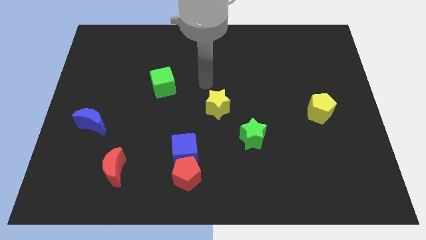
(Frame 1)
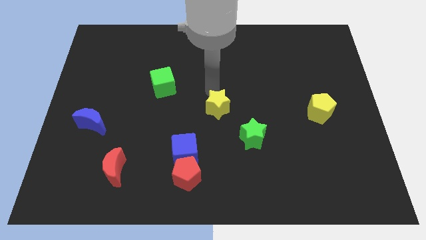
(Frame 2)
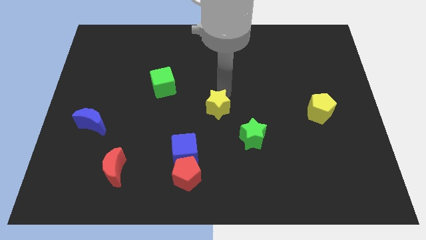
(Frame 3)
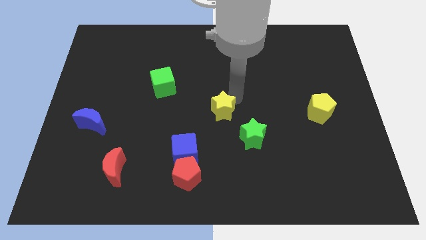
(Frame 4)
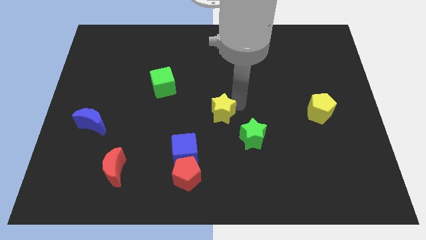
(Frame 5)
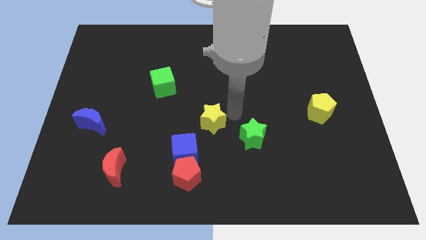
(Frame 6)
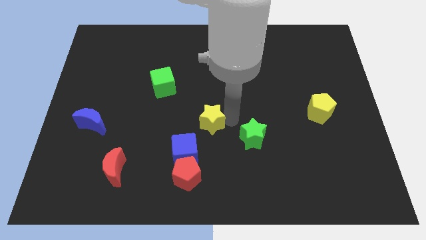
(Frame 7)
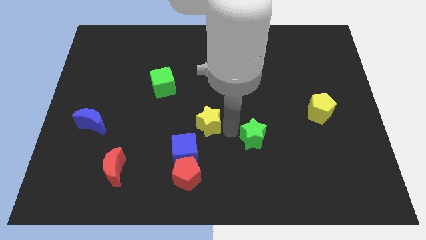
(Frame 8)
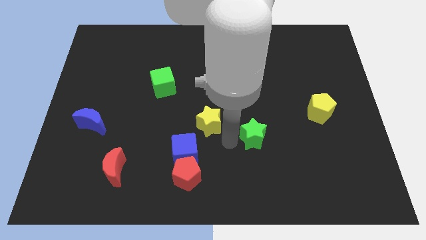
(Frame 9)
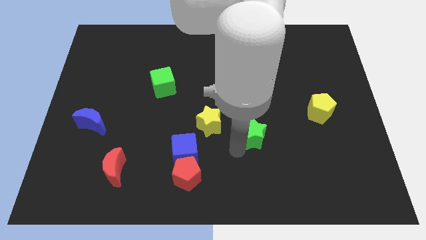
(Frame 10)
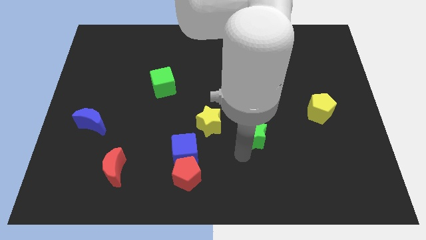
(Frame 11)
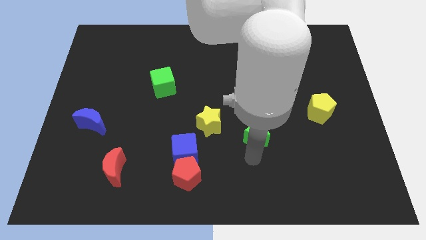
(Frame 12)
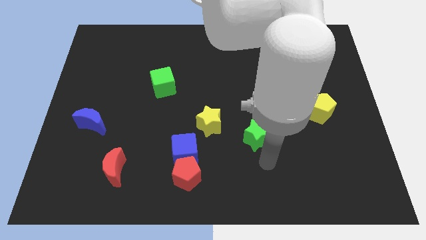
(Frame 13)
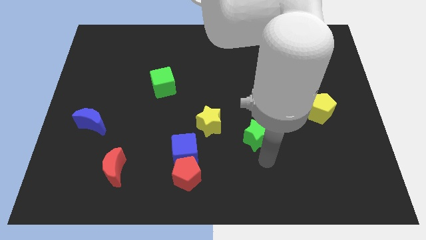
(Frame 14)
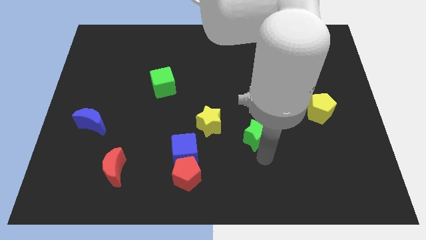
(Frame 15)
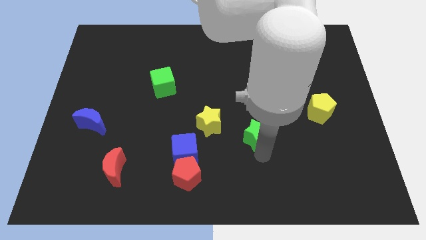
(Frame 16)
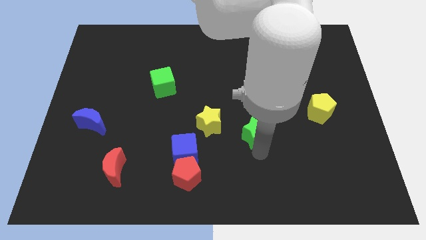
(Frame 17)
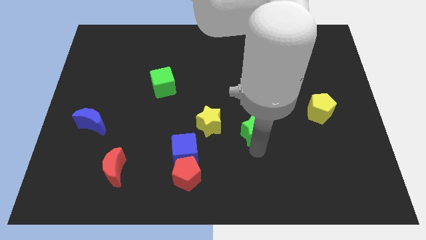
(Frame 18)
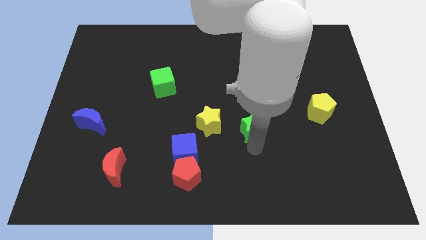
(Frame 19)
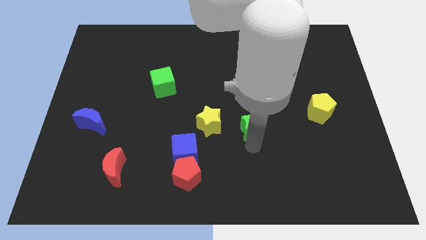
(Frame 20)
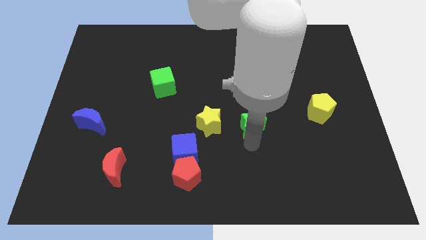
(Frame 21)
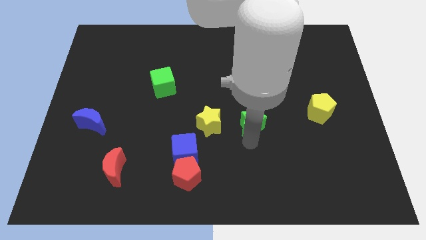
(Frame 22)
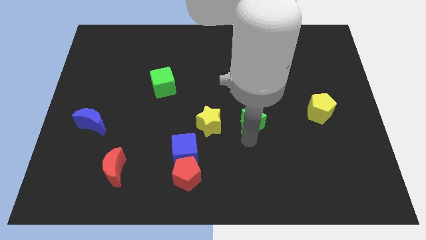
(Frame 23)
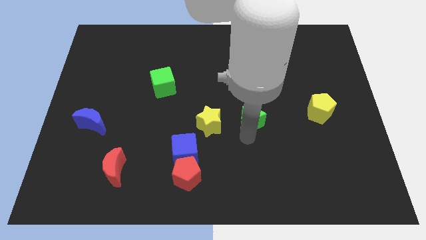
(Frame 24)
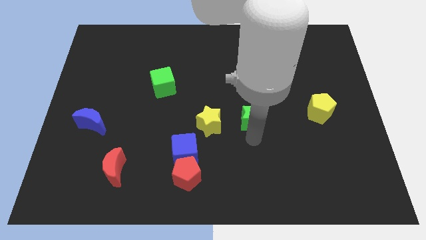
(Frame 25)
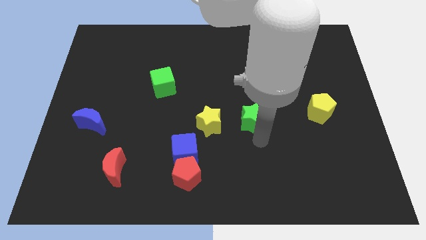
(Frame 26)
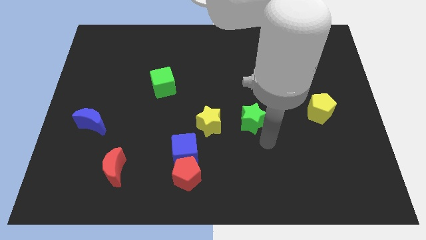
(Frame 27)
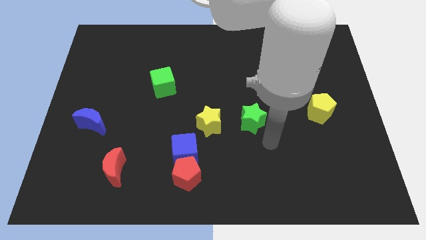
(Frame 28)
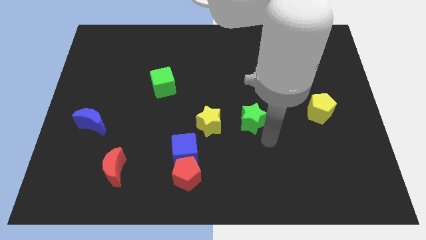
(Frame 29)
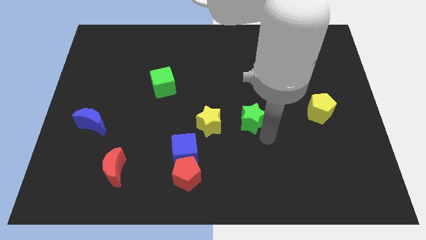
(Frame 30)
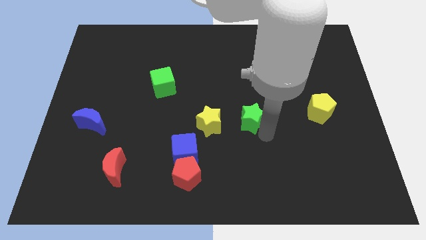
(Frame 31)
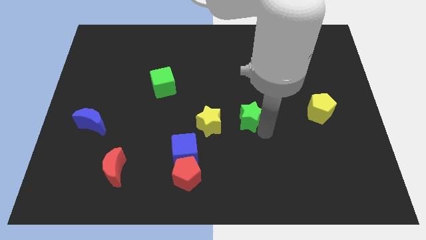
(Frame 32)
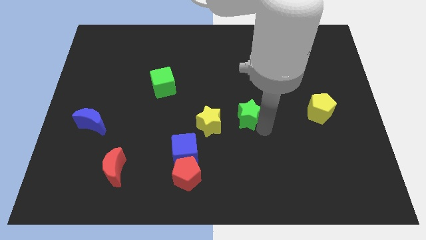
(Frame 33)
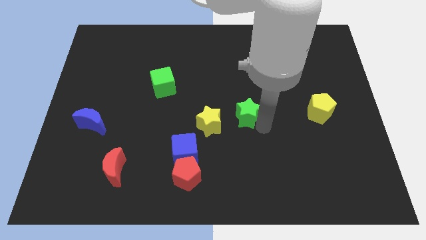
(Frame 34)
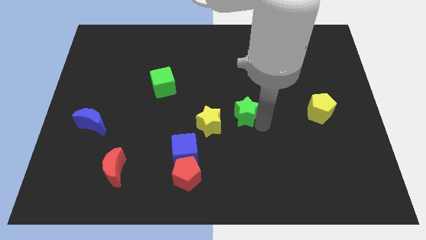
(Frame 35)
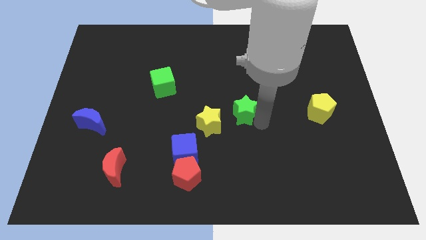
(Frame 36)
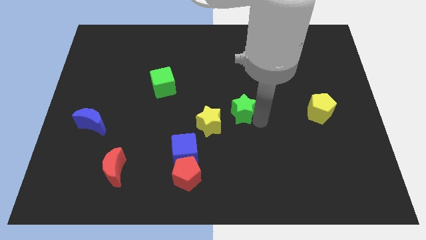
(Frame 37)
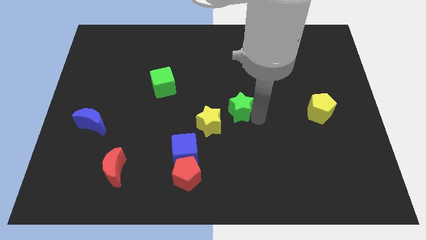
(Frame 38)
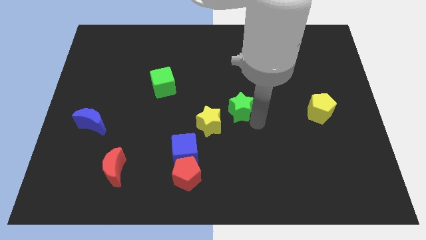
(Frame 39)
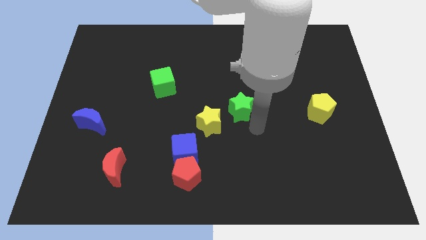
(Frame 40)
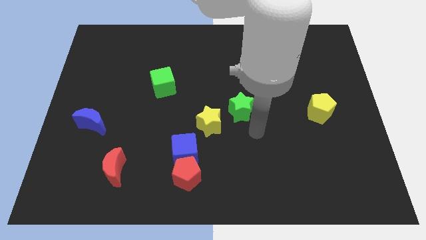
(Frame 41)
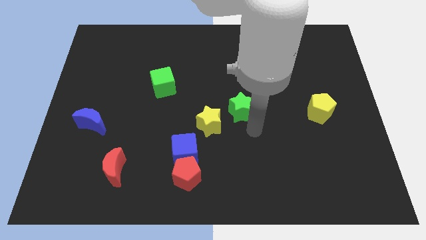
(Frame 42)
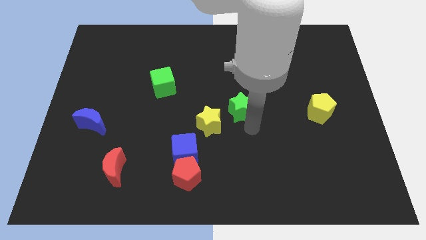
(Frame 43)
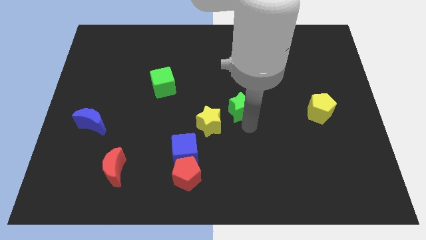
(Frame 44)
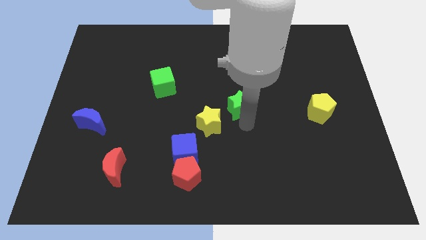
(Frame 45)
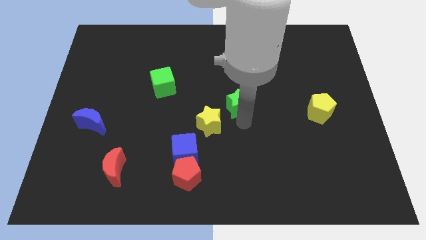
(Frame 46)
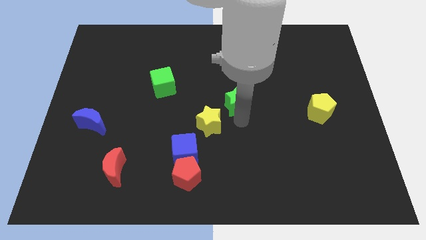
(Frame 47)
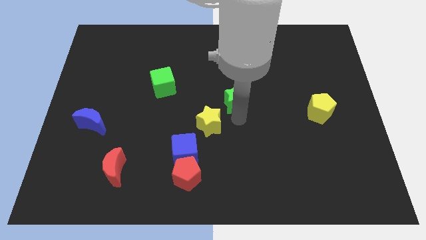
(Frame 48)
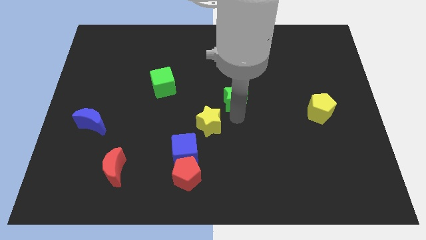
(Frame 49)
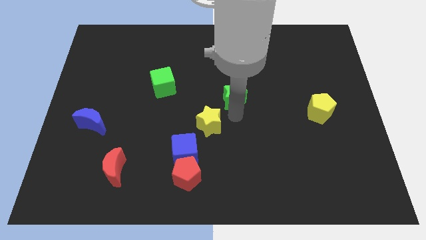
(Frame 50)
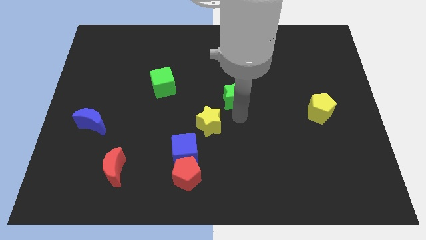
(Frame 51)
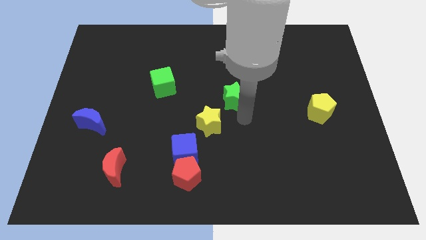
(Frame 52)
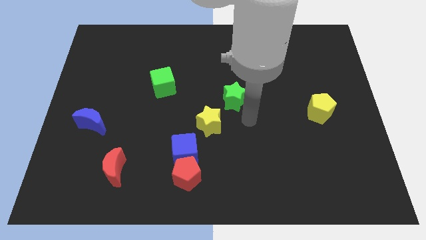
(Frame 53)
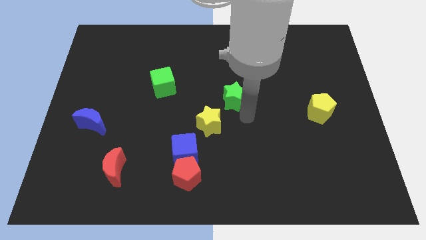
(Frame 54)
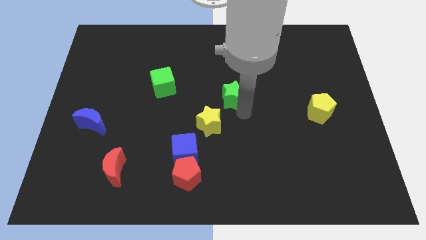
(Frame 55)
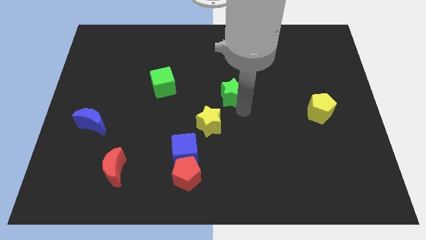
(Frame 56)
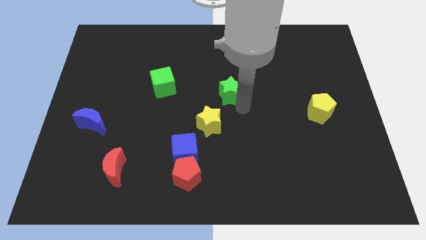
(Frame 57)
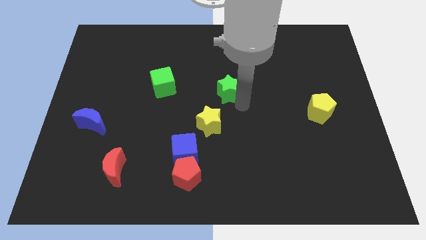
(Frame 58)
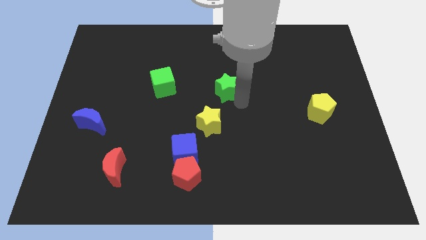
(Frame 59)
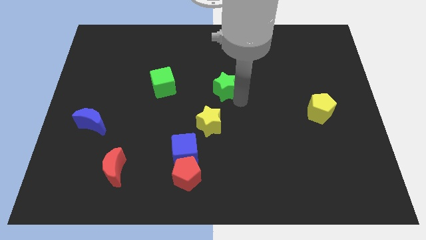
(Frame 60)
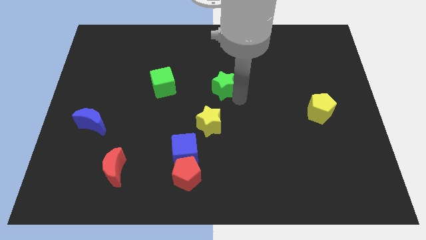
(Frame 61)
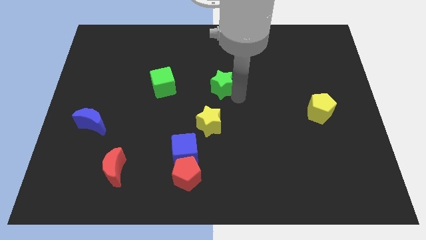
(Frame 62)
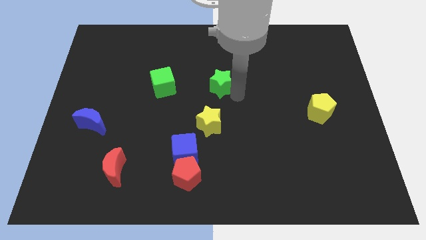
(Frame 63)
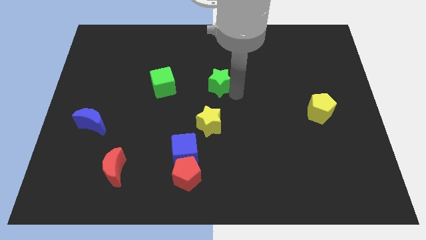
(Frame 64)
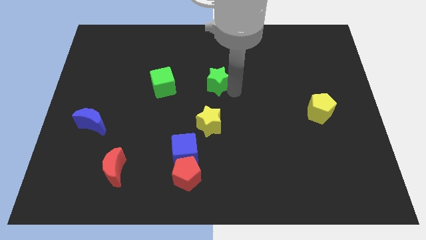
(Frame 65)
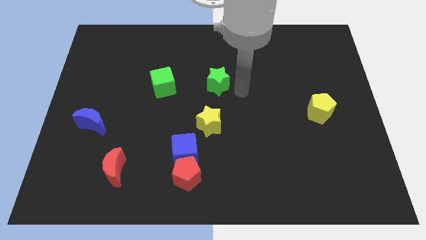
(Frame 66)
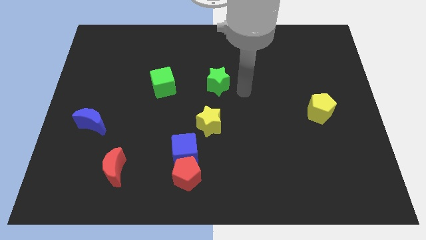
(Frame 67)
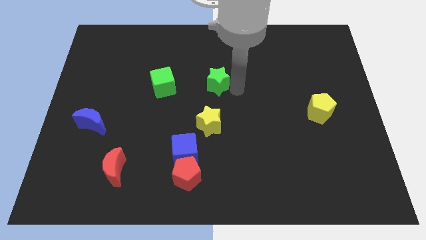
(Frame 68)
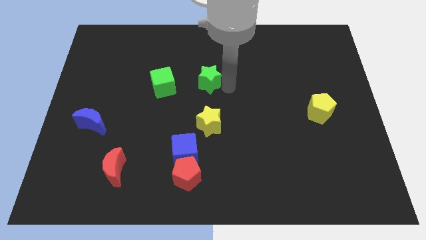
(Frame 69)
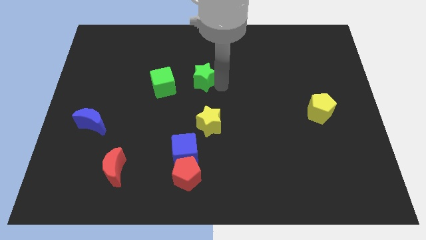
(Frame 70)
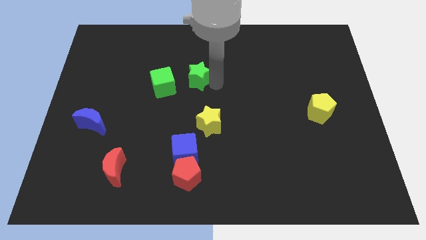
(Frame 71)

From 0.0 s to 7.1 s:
push the green star up and then to the left

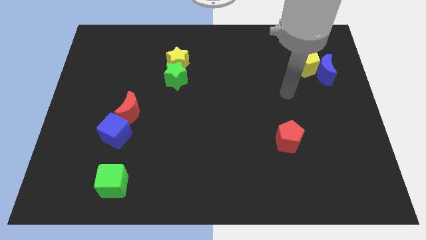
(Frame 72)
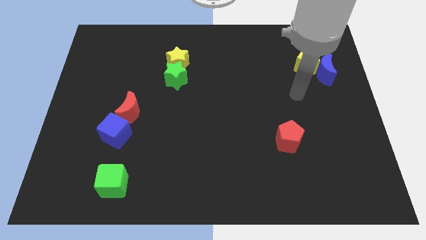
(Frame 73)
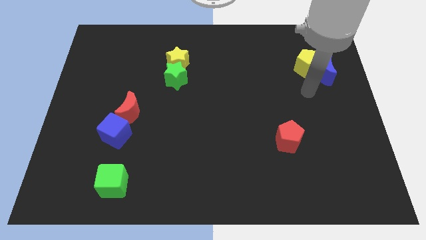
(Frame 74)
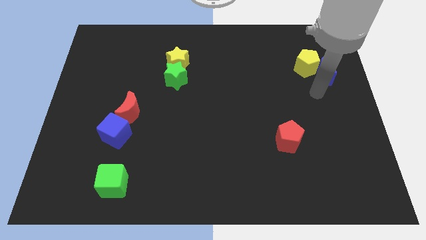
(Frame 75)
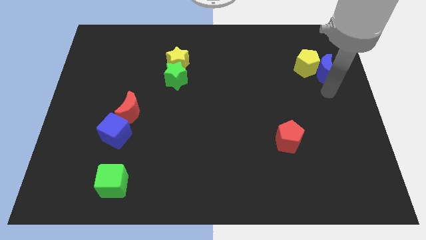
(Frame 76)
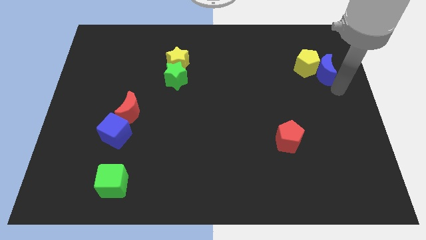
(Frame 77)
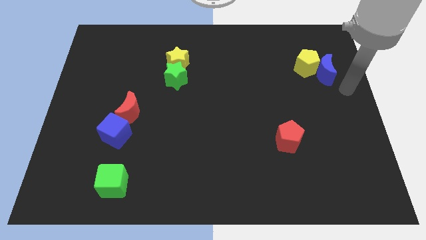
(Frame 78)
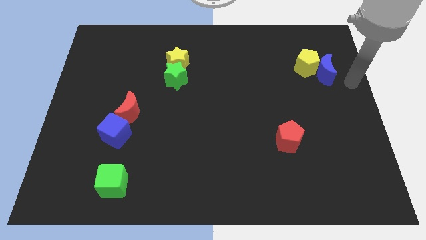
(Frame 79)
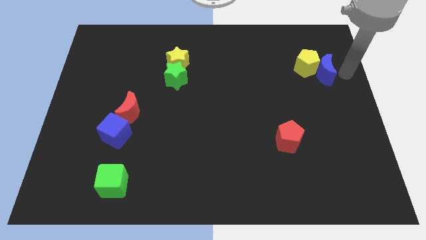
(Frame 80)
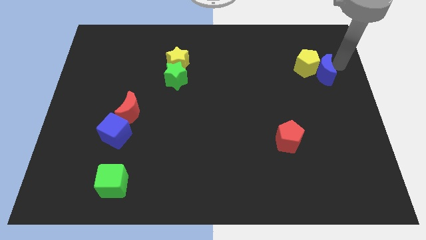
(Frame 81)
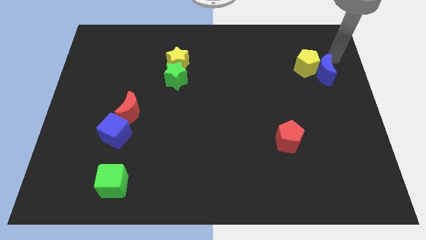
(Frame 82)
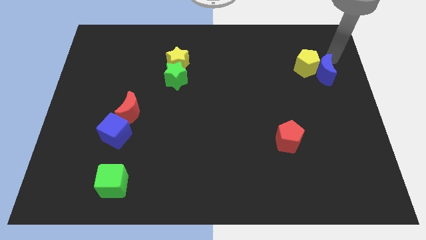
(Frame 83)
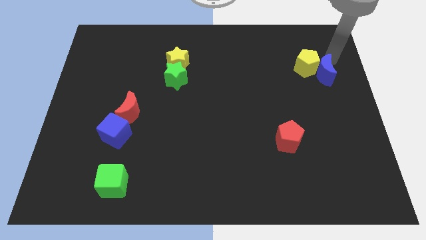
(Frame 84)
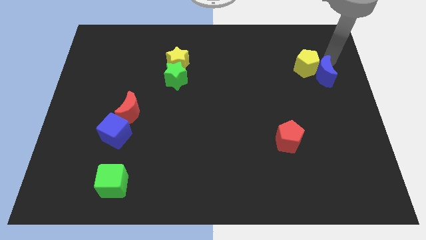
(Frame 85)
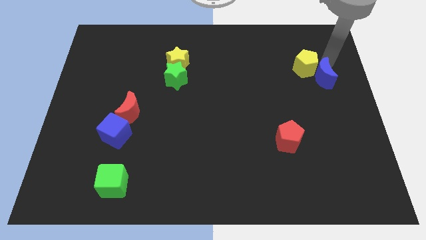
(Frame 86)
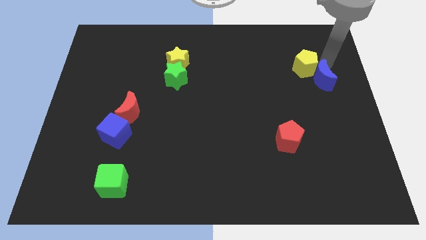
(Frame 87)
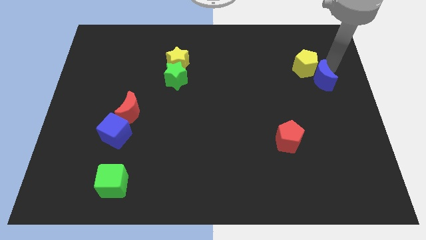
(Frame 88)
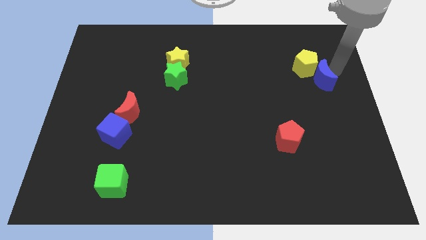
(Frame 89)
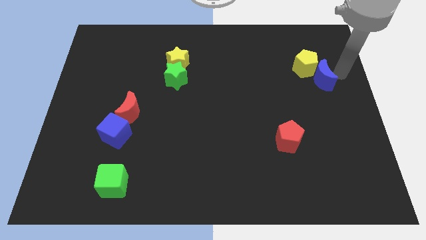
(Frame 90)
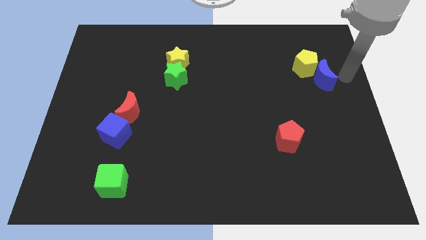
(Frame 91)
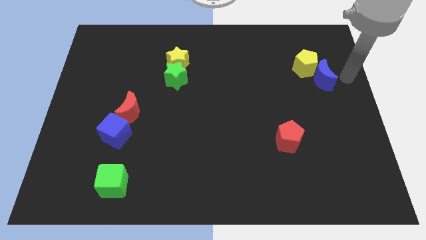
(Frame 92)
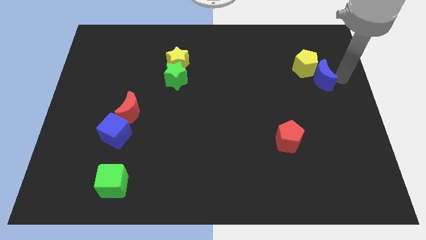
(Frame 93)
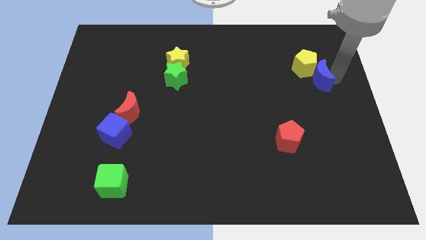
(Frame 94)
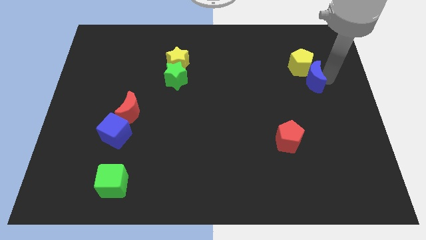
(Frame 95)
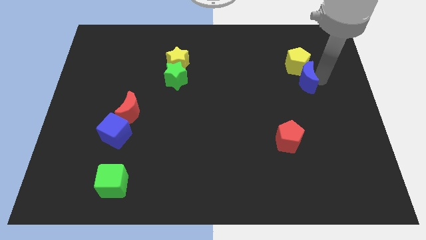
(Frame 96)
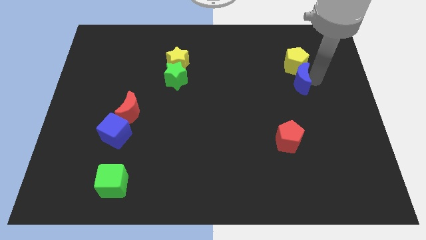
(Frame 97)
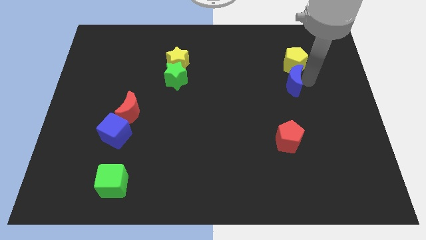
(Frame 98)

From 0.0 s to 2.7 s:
slide the blue moon slightly left
